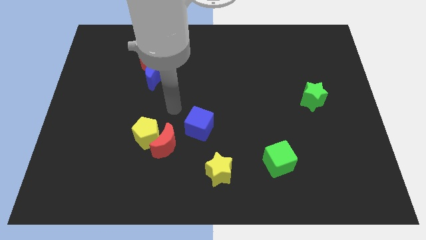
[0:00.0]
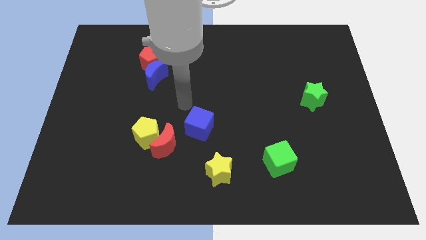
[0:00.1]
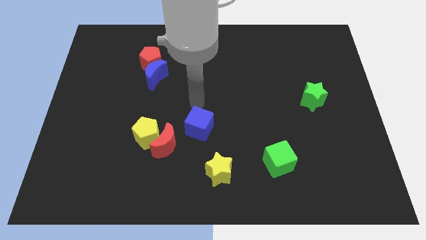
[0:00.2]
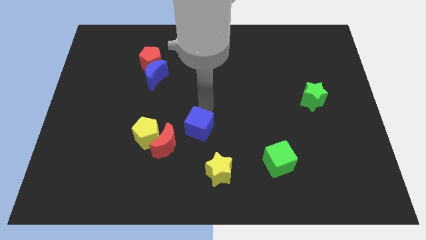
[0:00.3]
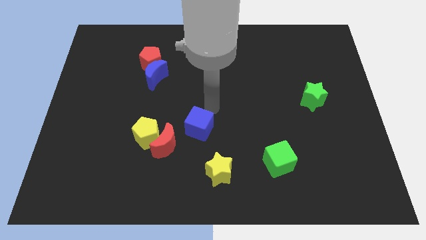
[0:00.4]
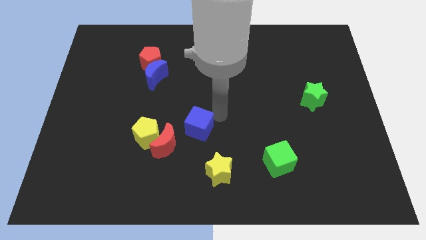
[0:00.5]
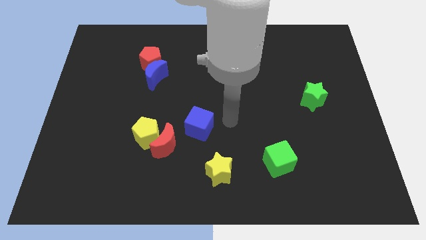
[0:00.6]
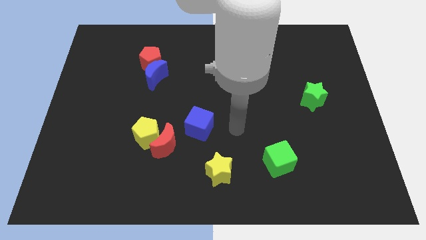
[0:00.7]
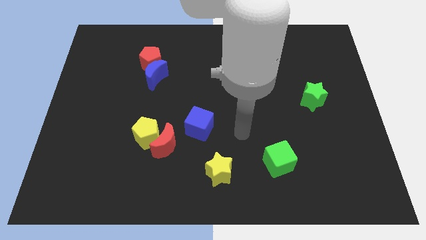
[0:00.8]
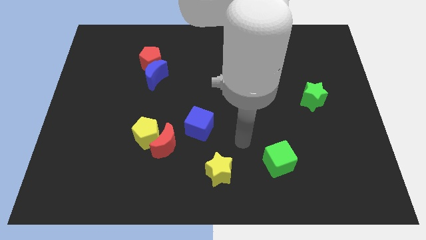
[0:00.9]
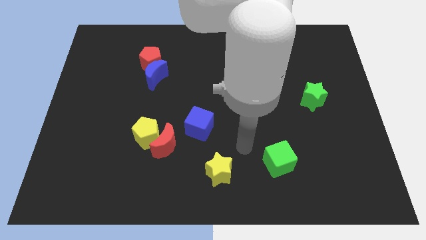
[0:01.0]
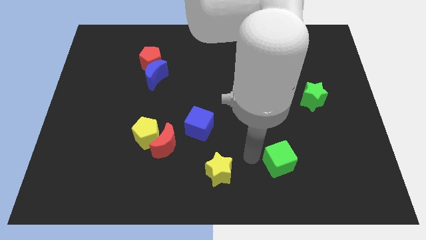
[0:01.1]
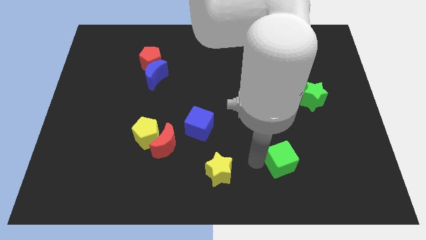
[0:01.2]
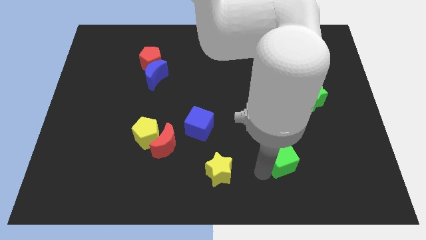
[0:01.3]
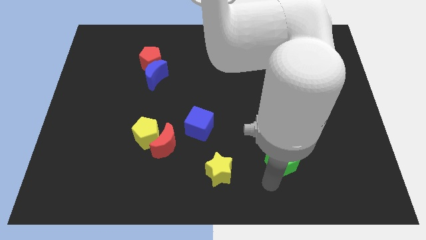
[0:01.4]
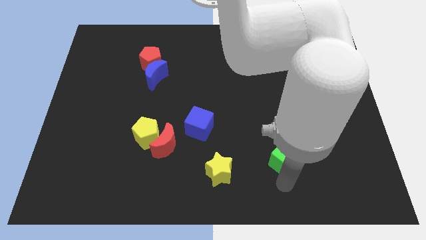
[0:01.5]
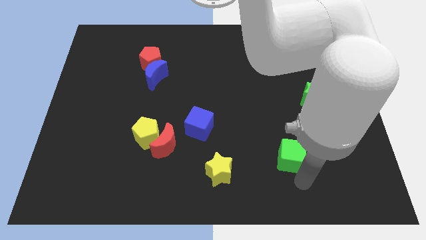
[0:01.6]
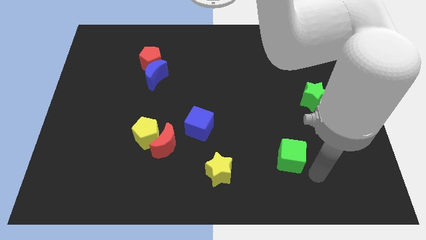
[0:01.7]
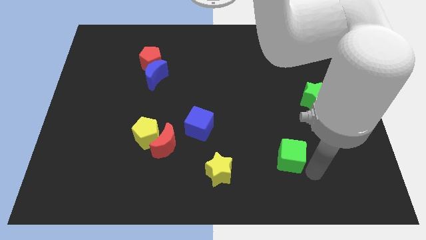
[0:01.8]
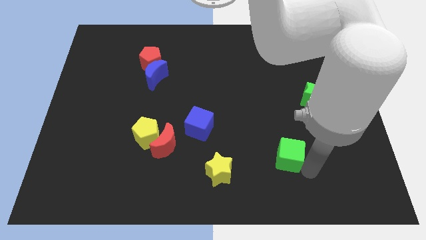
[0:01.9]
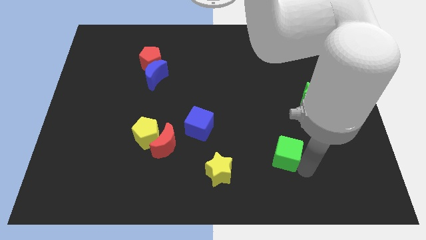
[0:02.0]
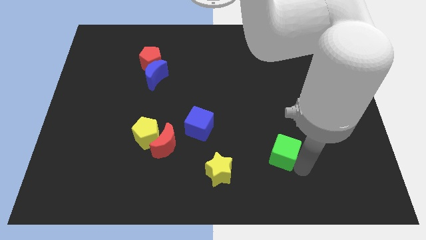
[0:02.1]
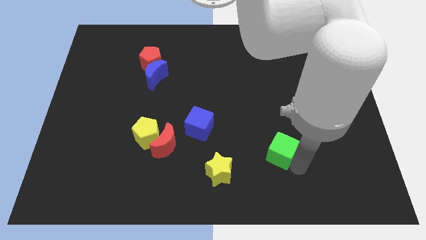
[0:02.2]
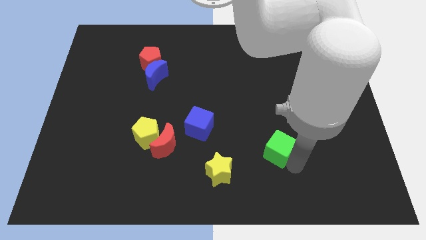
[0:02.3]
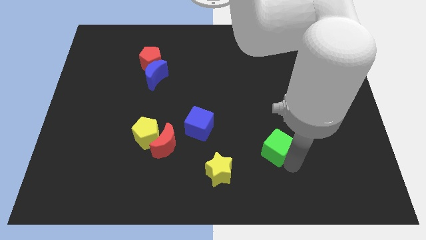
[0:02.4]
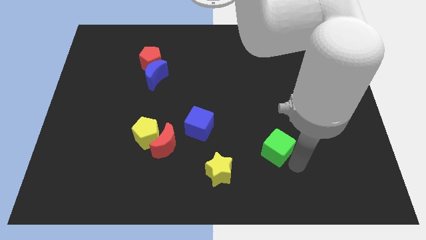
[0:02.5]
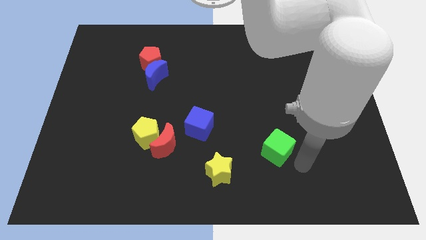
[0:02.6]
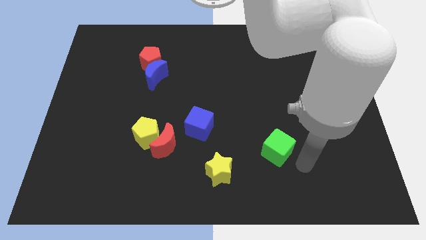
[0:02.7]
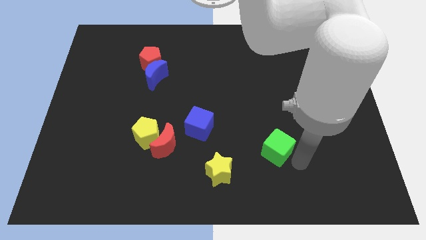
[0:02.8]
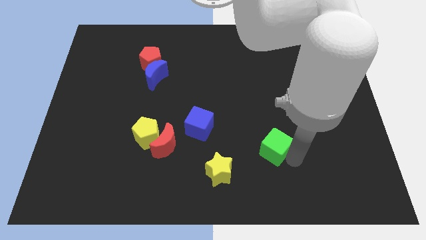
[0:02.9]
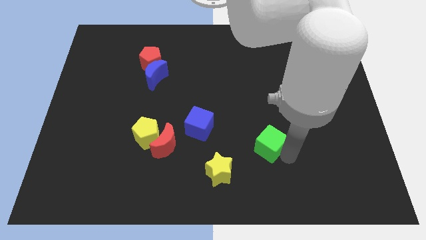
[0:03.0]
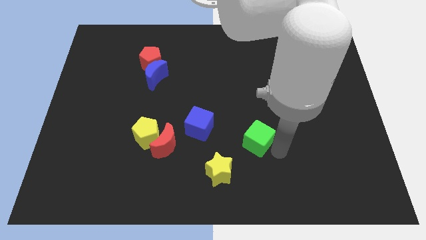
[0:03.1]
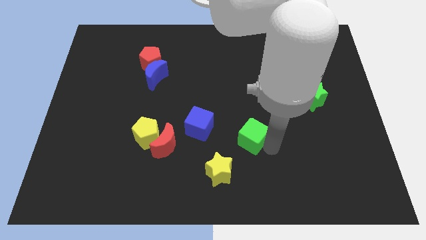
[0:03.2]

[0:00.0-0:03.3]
slide the green cube up and then left a bit

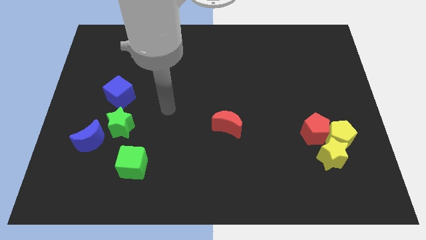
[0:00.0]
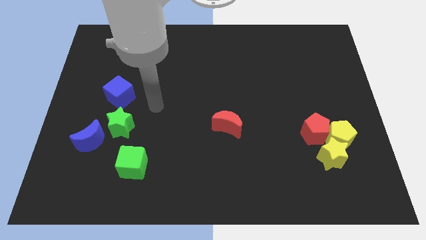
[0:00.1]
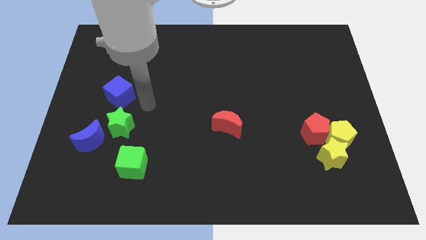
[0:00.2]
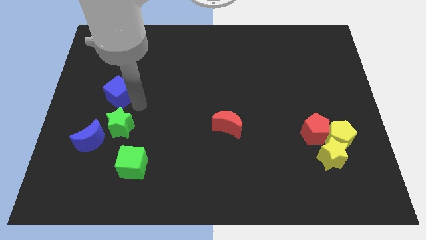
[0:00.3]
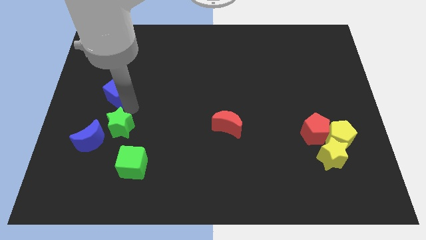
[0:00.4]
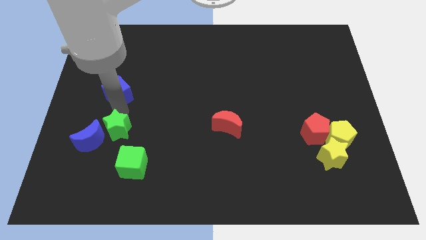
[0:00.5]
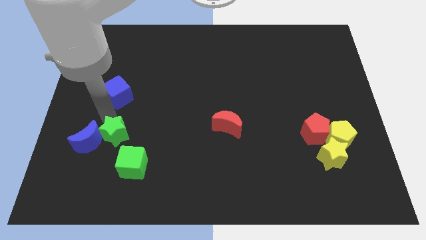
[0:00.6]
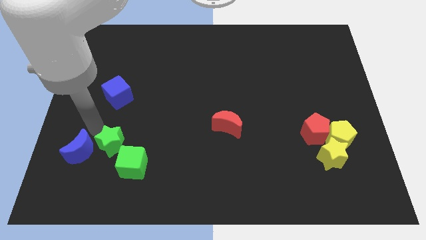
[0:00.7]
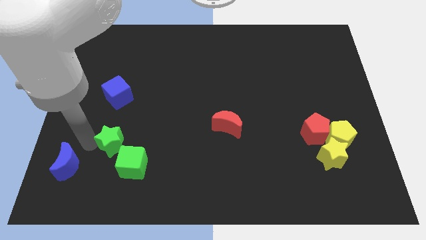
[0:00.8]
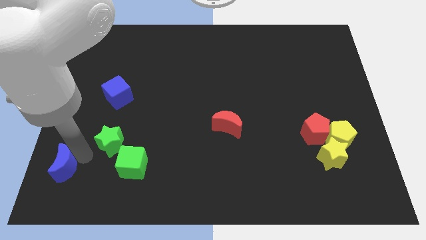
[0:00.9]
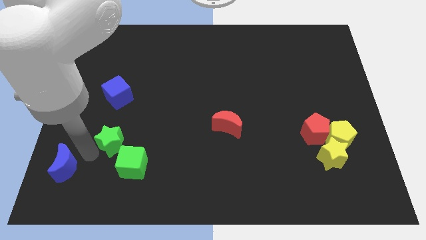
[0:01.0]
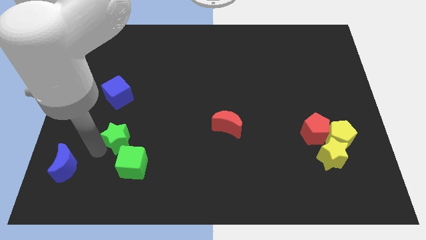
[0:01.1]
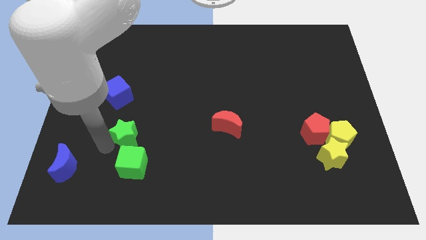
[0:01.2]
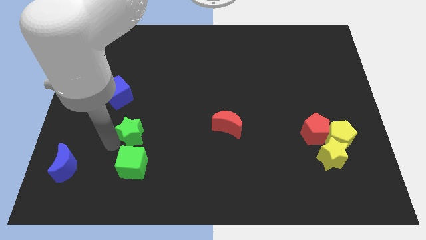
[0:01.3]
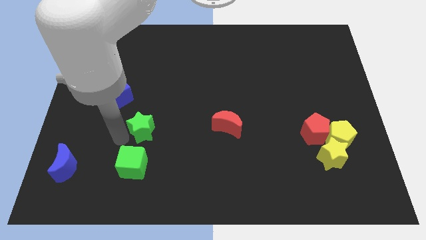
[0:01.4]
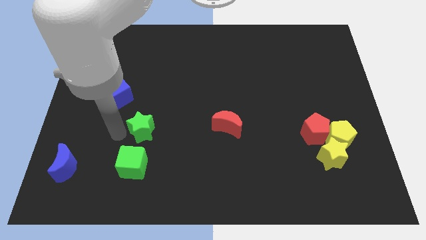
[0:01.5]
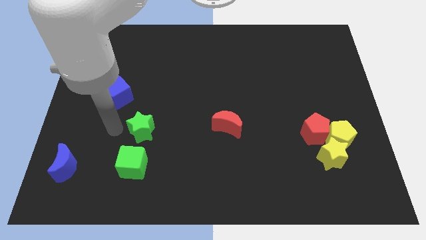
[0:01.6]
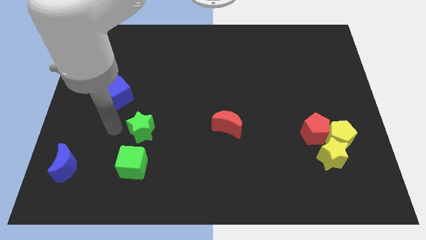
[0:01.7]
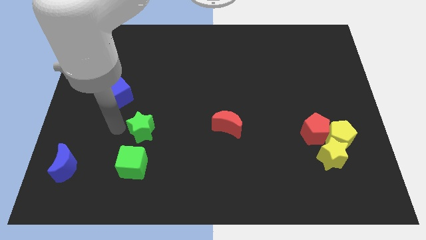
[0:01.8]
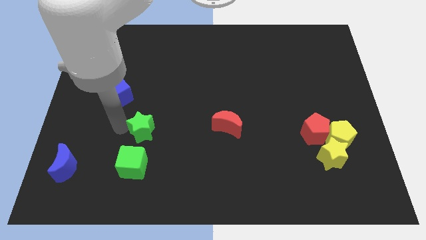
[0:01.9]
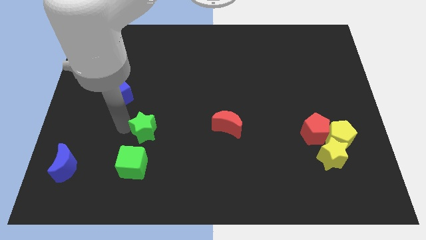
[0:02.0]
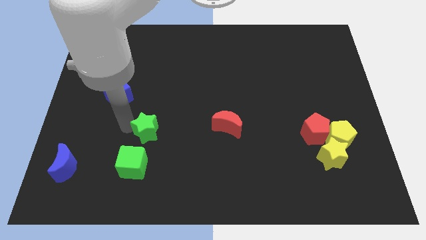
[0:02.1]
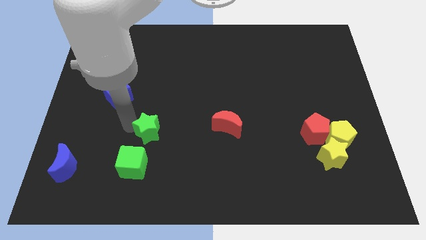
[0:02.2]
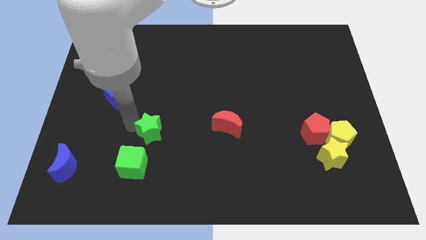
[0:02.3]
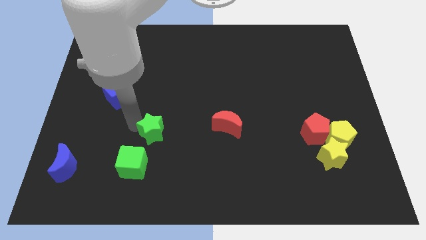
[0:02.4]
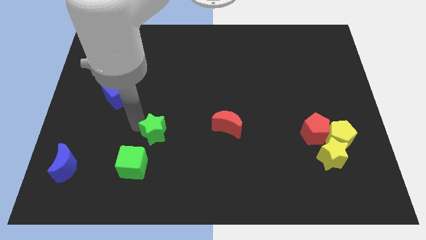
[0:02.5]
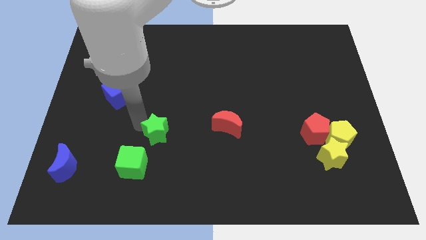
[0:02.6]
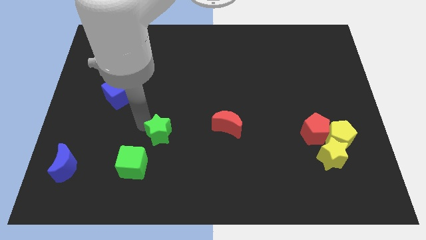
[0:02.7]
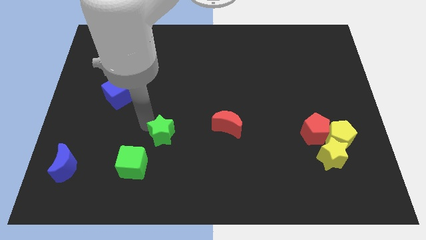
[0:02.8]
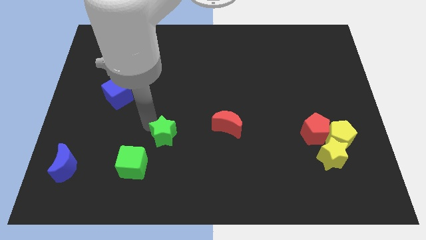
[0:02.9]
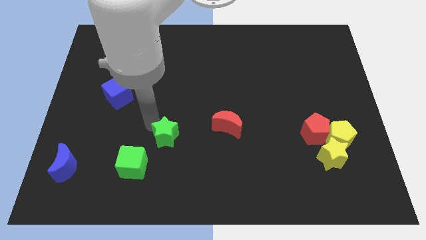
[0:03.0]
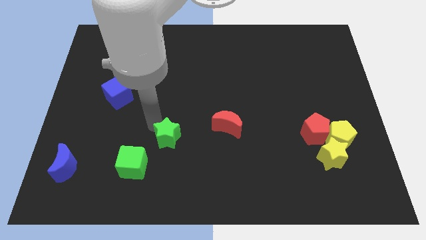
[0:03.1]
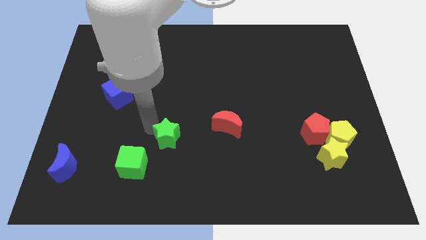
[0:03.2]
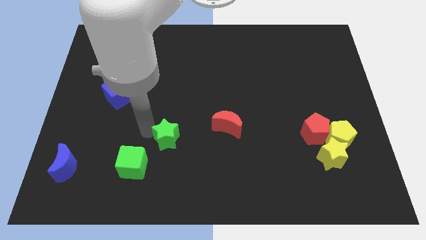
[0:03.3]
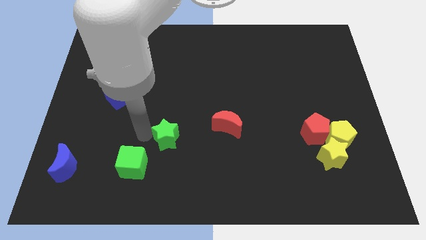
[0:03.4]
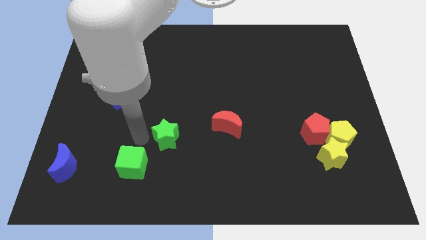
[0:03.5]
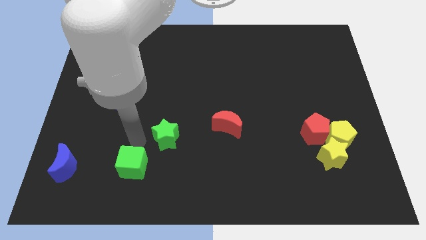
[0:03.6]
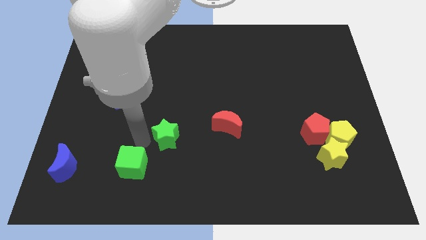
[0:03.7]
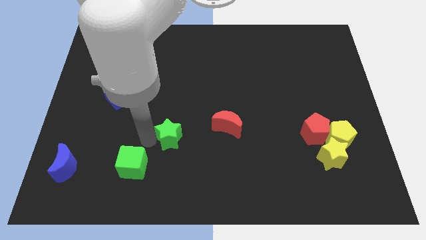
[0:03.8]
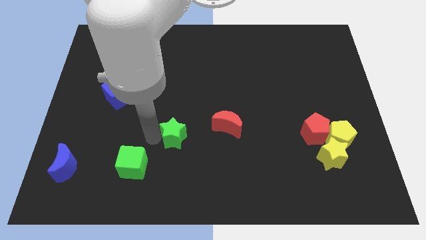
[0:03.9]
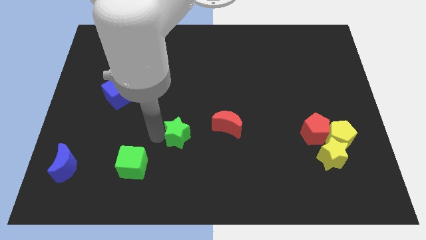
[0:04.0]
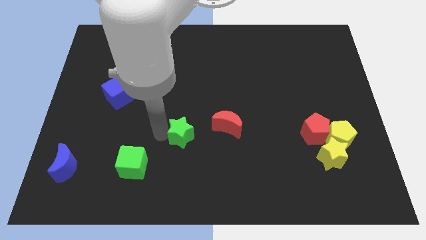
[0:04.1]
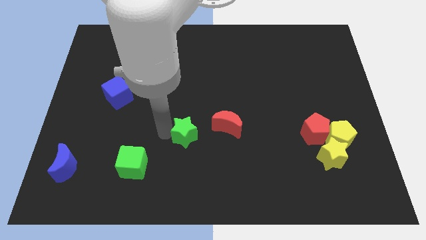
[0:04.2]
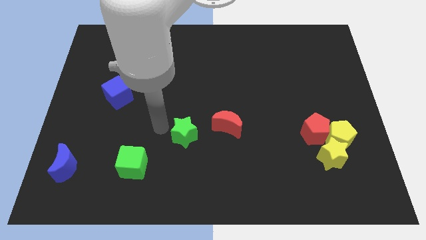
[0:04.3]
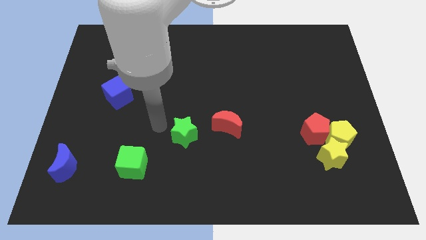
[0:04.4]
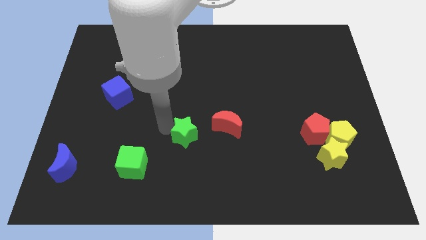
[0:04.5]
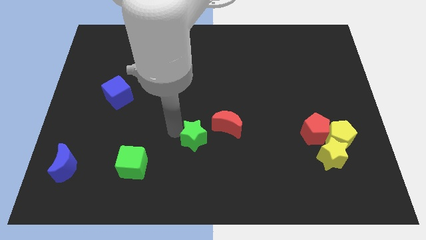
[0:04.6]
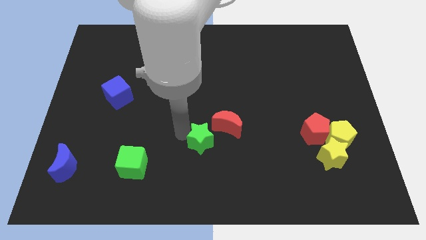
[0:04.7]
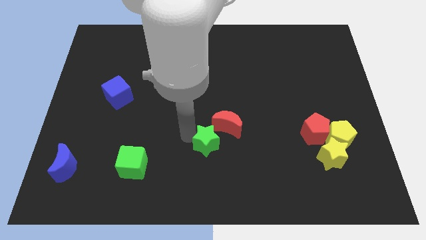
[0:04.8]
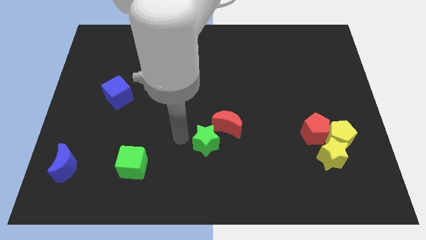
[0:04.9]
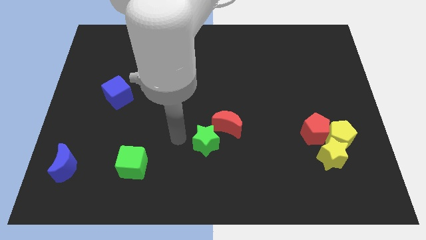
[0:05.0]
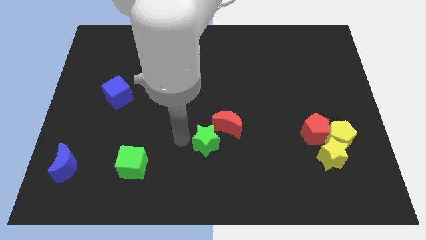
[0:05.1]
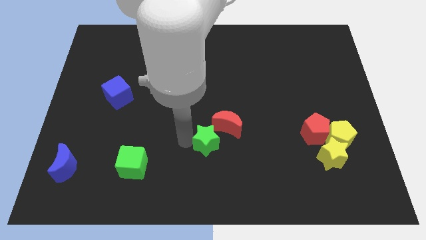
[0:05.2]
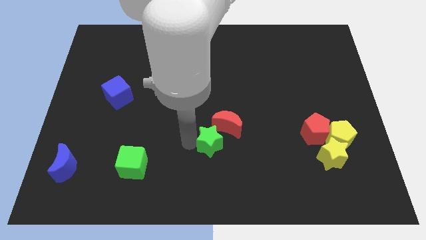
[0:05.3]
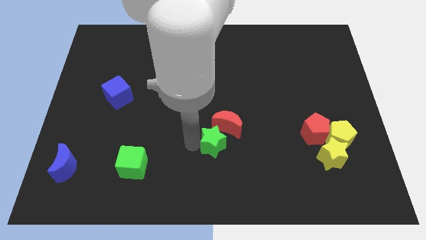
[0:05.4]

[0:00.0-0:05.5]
push the green star right
